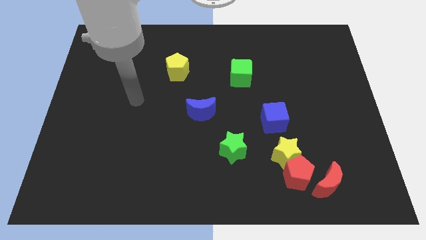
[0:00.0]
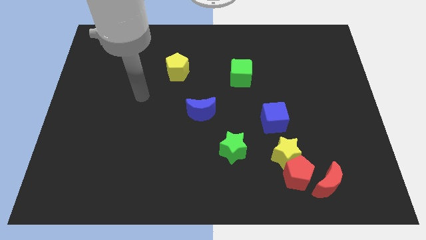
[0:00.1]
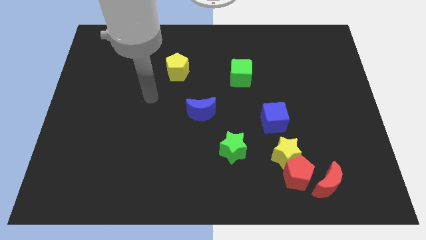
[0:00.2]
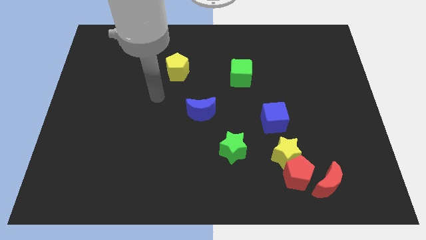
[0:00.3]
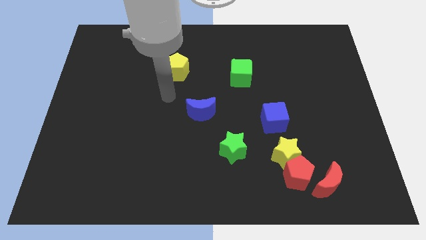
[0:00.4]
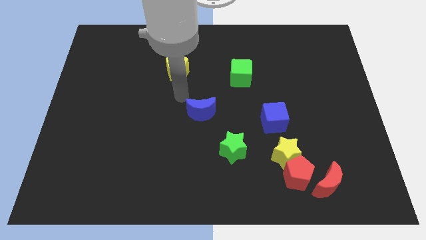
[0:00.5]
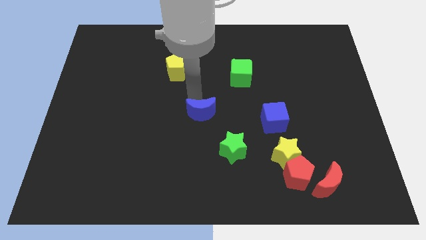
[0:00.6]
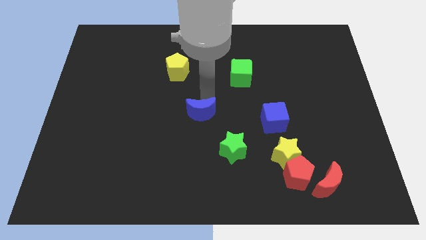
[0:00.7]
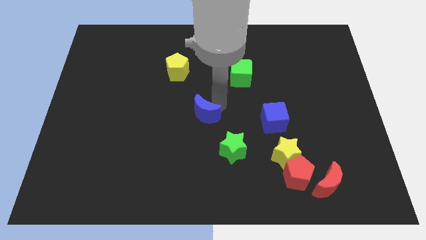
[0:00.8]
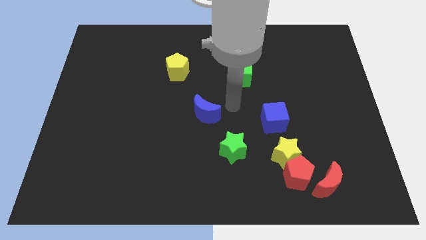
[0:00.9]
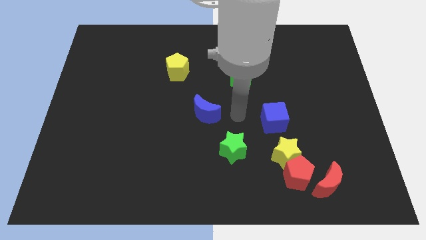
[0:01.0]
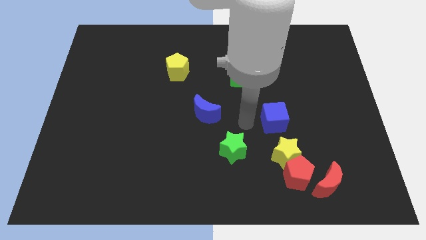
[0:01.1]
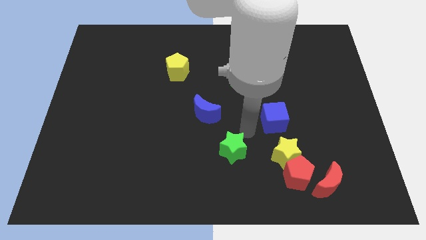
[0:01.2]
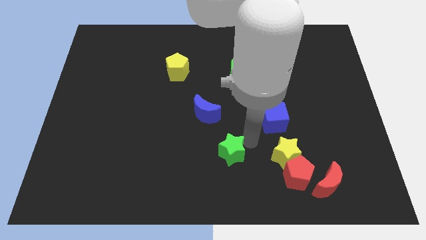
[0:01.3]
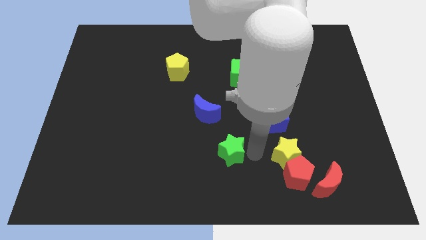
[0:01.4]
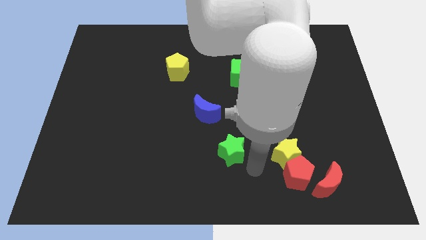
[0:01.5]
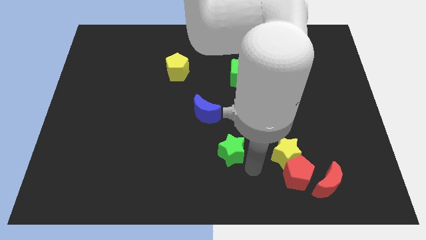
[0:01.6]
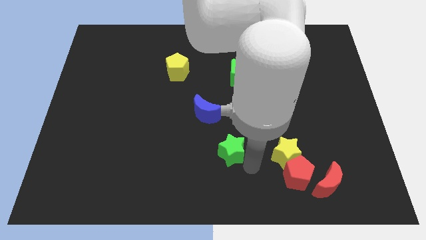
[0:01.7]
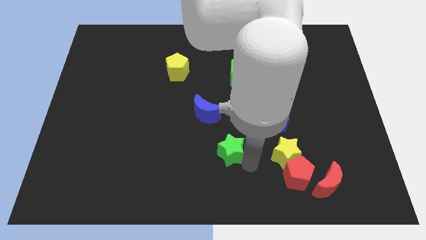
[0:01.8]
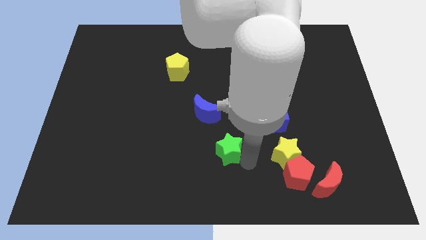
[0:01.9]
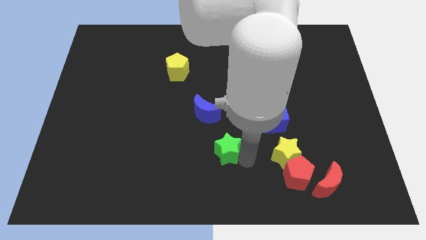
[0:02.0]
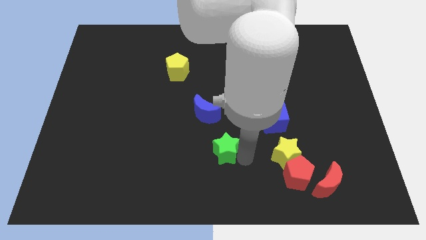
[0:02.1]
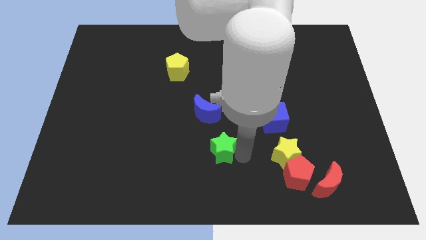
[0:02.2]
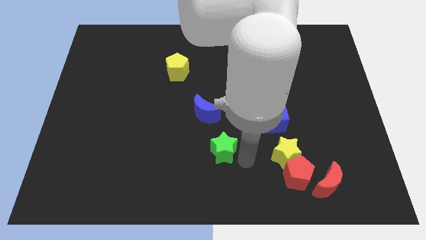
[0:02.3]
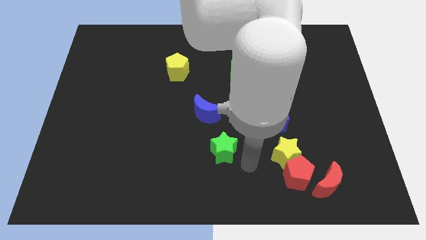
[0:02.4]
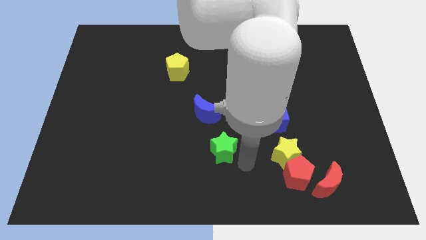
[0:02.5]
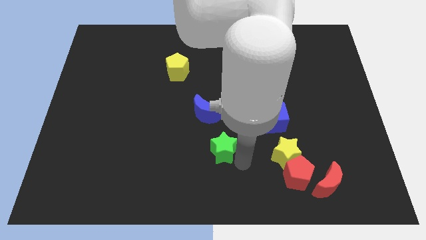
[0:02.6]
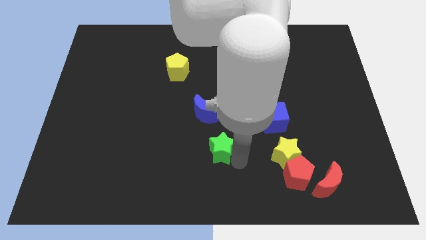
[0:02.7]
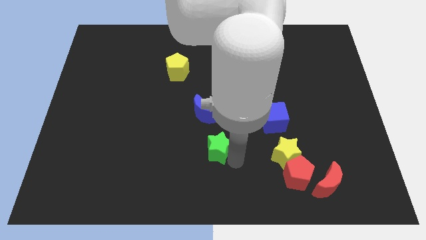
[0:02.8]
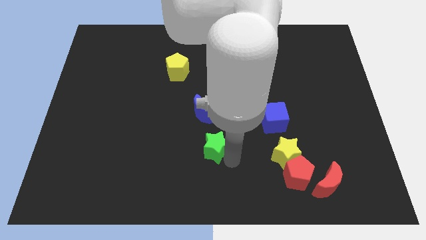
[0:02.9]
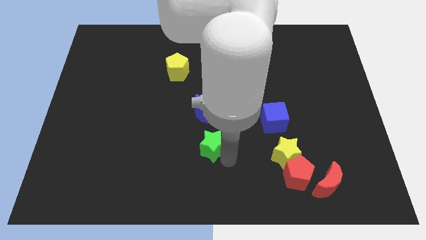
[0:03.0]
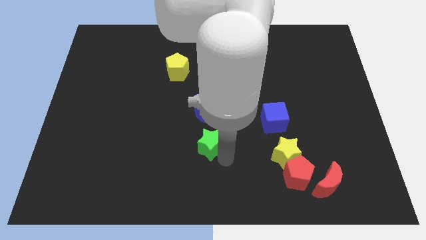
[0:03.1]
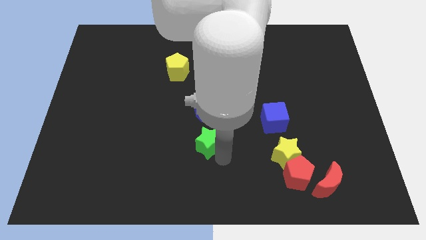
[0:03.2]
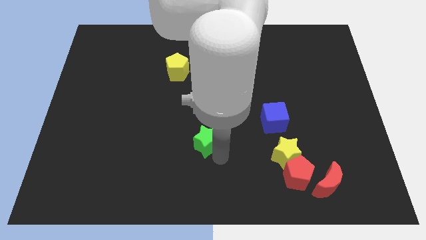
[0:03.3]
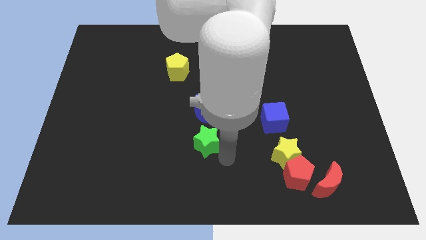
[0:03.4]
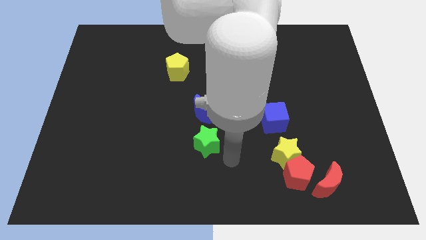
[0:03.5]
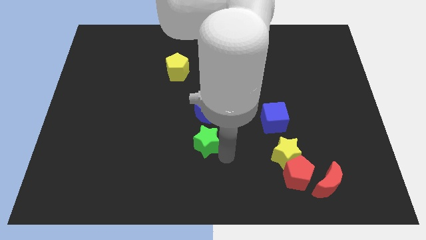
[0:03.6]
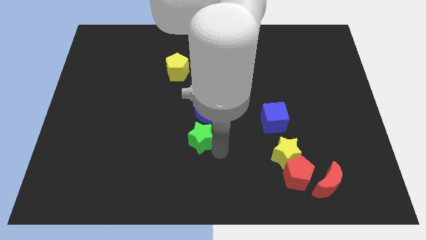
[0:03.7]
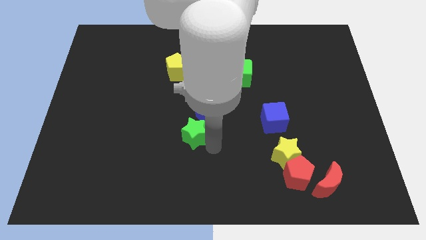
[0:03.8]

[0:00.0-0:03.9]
slide the green star upwards and to the left somewhat

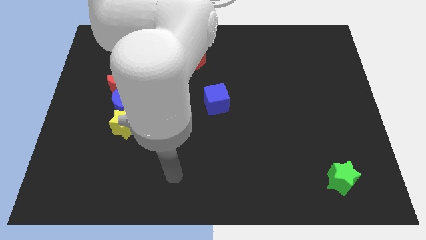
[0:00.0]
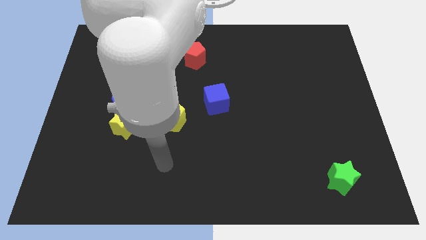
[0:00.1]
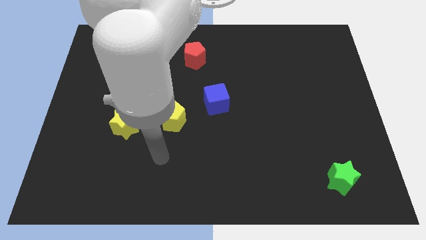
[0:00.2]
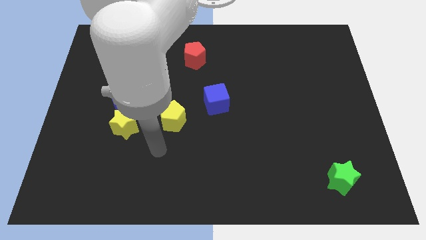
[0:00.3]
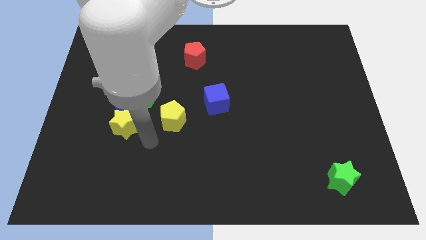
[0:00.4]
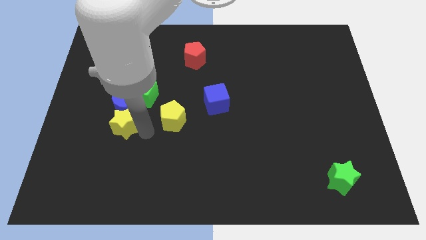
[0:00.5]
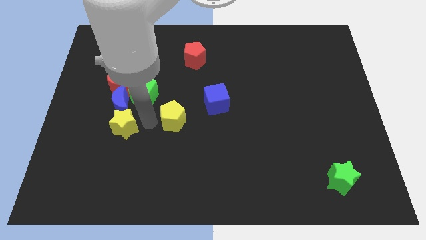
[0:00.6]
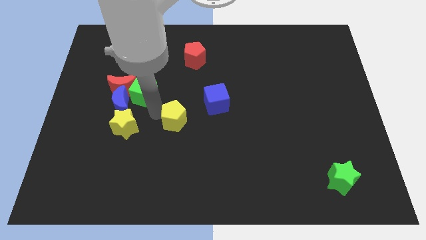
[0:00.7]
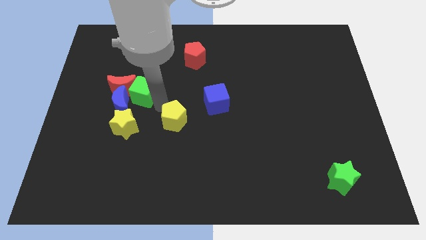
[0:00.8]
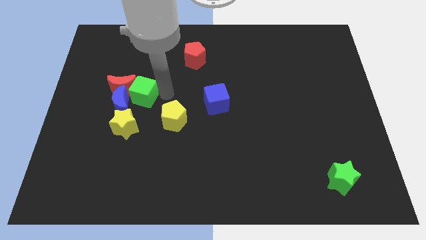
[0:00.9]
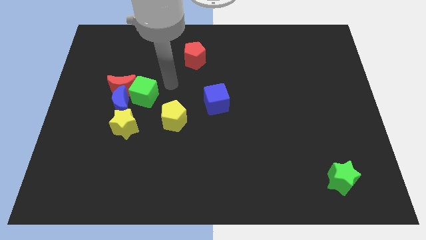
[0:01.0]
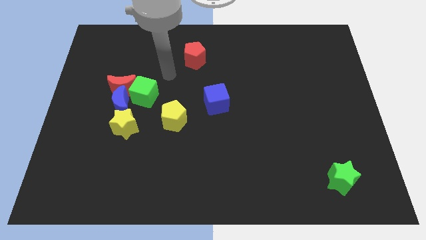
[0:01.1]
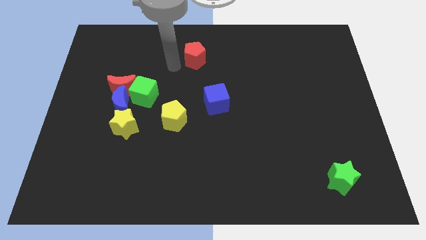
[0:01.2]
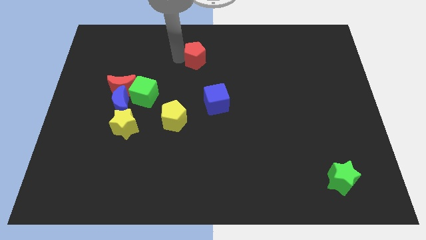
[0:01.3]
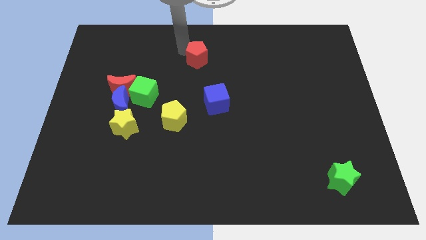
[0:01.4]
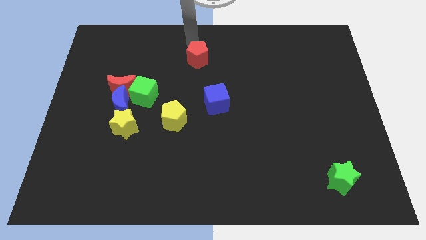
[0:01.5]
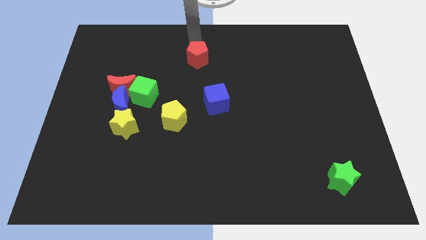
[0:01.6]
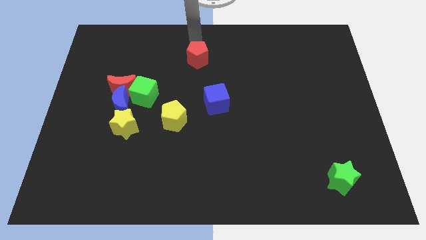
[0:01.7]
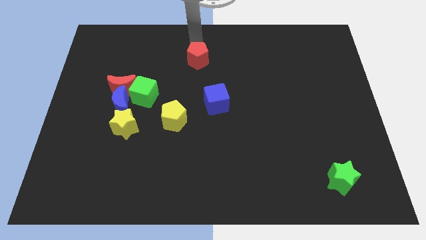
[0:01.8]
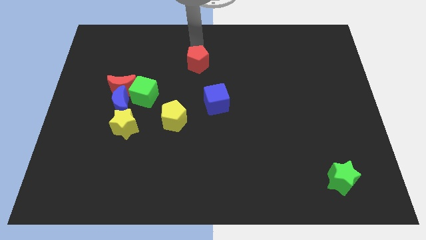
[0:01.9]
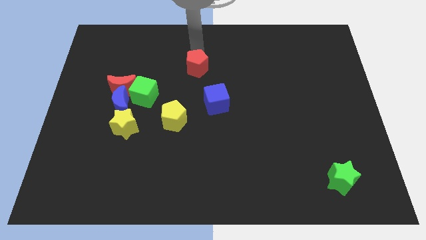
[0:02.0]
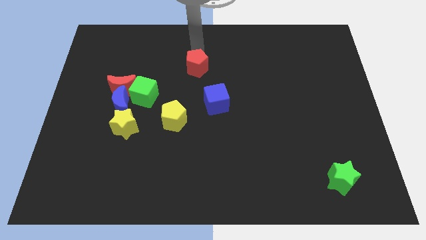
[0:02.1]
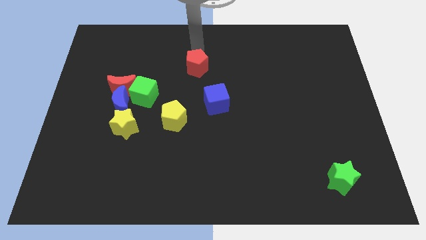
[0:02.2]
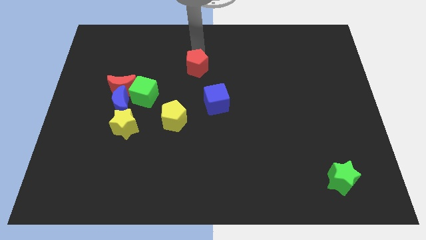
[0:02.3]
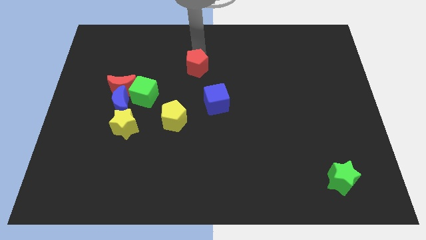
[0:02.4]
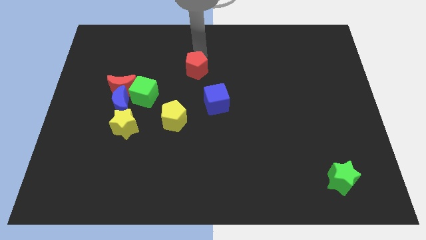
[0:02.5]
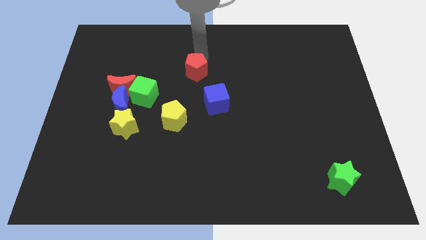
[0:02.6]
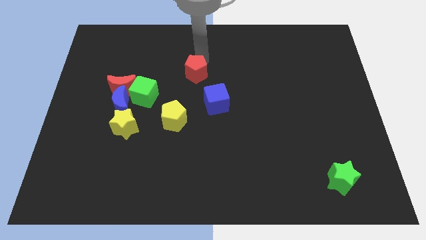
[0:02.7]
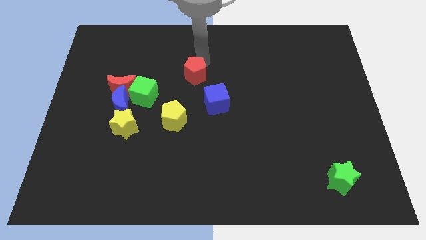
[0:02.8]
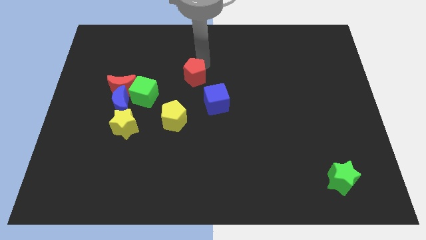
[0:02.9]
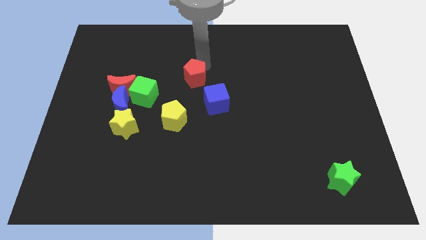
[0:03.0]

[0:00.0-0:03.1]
push the red pentagon downwards a little bit

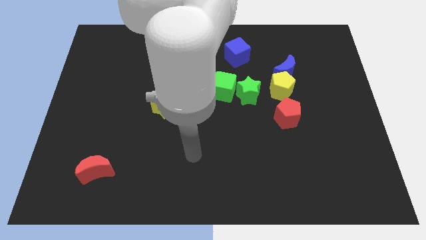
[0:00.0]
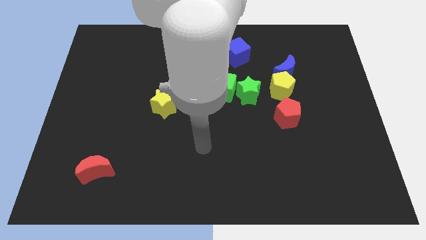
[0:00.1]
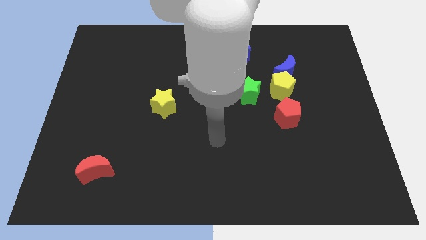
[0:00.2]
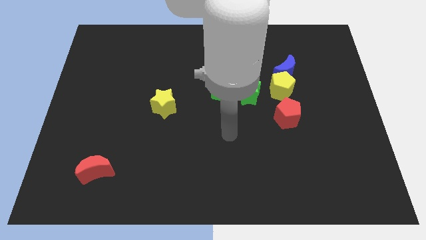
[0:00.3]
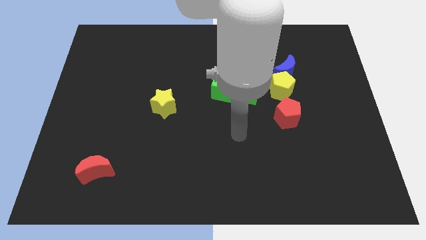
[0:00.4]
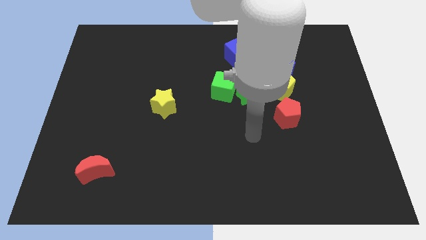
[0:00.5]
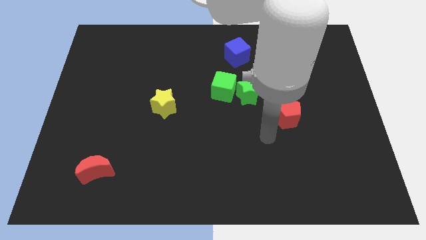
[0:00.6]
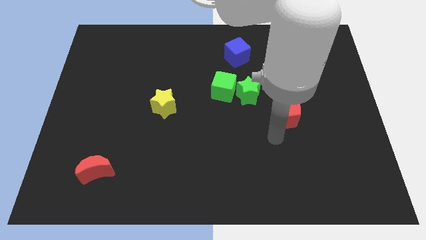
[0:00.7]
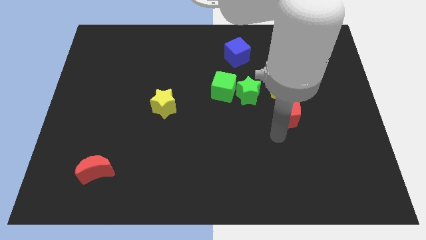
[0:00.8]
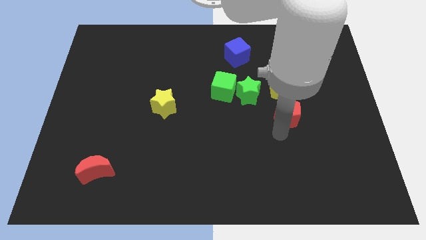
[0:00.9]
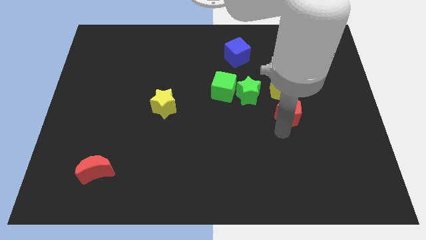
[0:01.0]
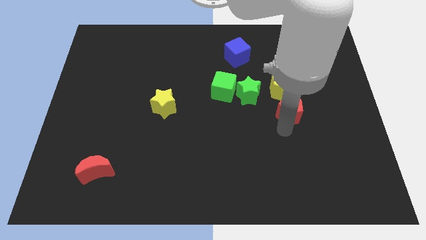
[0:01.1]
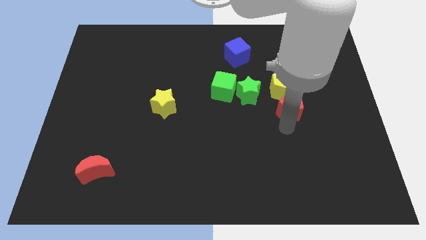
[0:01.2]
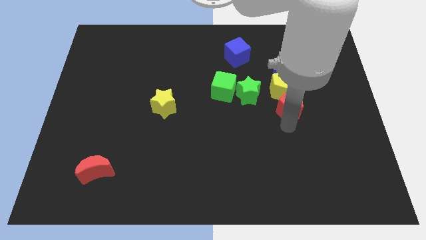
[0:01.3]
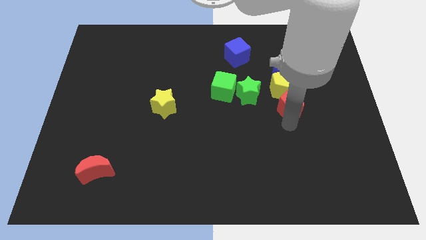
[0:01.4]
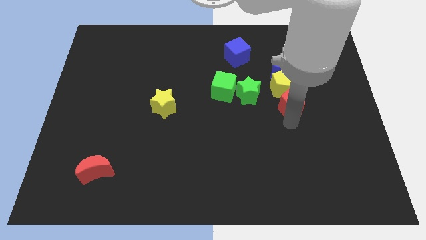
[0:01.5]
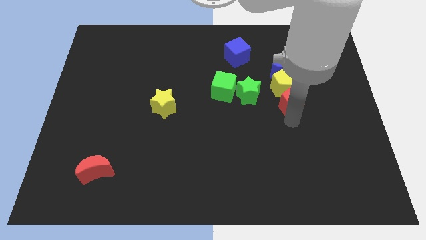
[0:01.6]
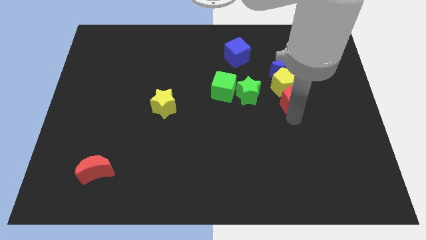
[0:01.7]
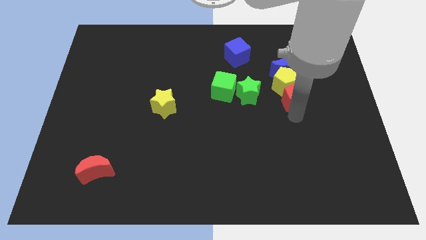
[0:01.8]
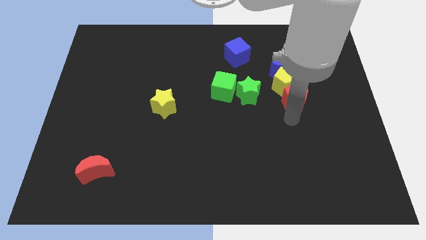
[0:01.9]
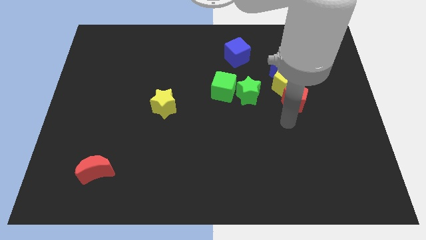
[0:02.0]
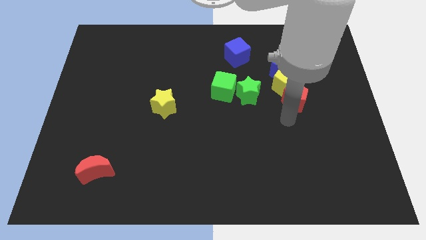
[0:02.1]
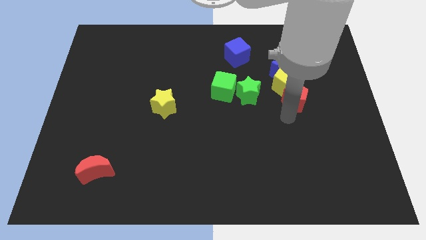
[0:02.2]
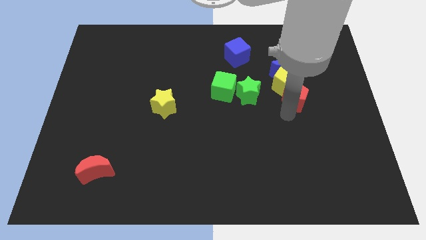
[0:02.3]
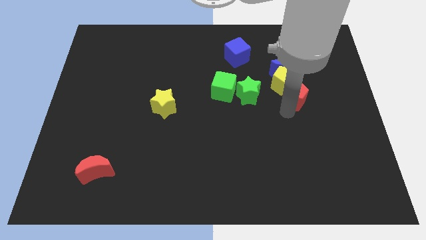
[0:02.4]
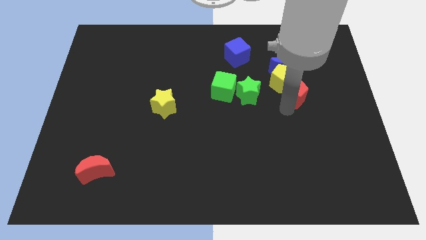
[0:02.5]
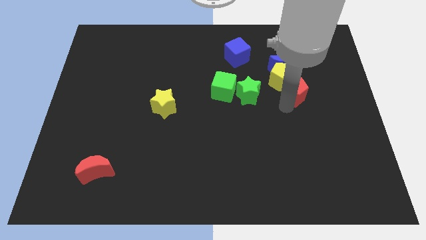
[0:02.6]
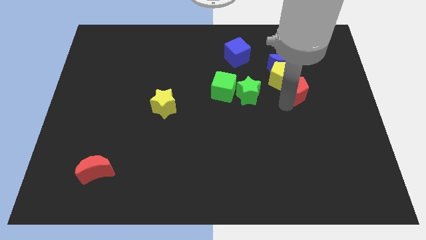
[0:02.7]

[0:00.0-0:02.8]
push the red pentagon up a little
